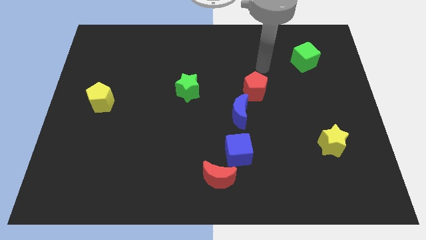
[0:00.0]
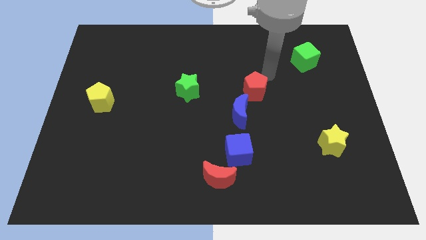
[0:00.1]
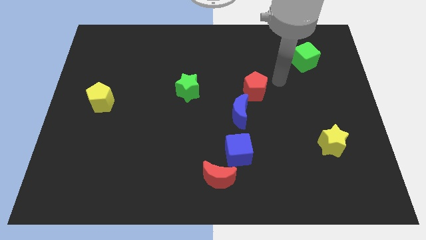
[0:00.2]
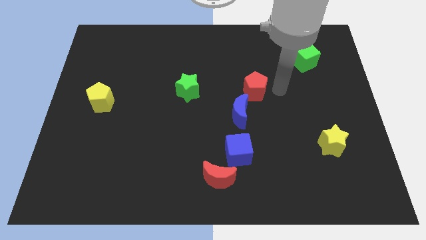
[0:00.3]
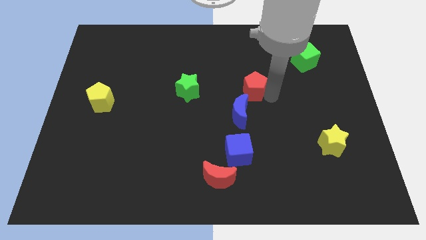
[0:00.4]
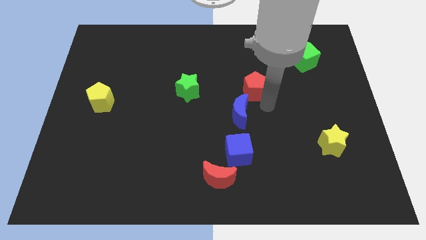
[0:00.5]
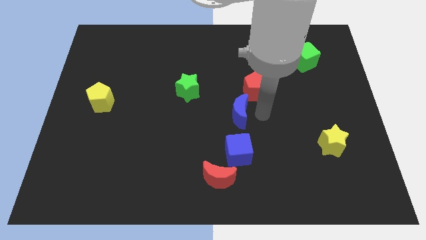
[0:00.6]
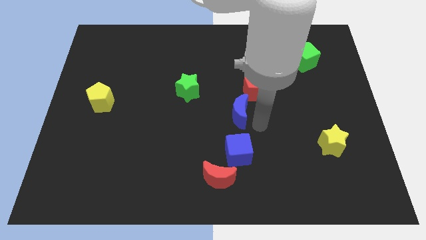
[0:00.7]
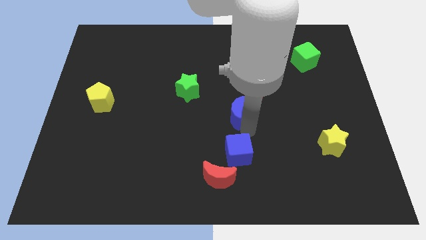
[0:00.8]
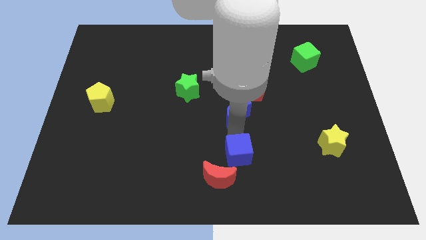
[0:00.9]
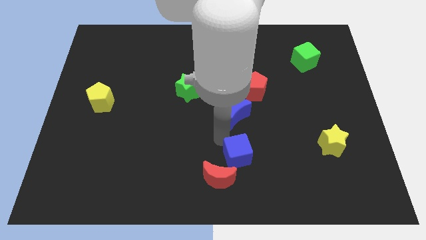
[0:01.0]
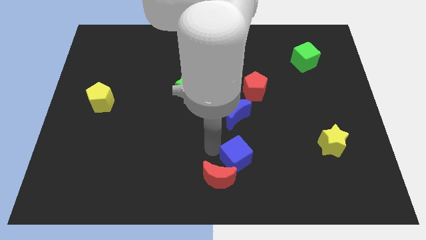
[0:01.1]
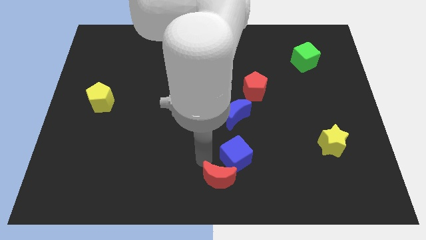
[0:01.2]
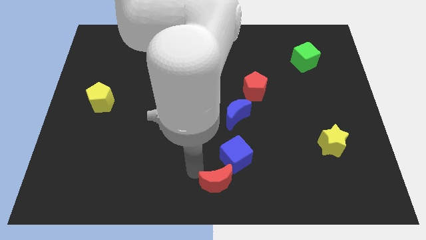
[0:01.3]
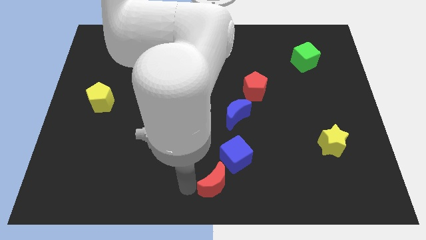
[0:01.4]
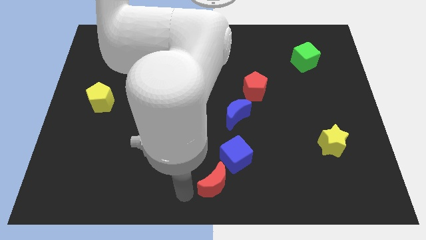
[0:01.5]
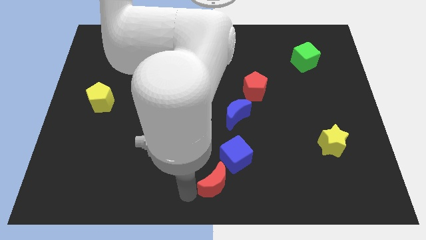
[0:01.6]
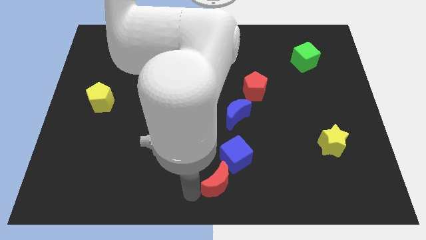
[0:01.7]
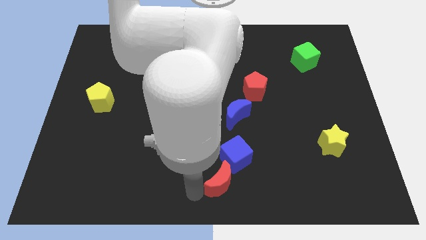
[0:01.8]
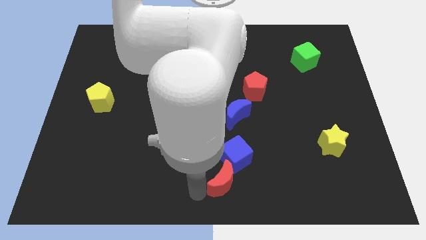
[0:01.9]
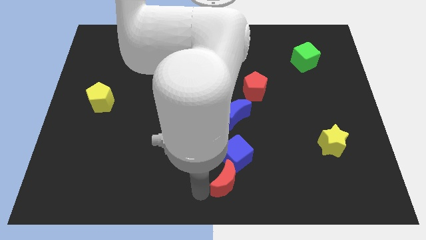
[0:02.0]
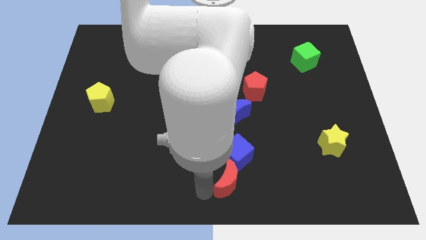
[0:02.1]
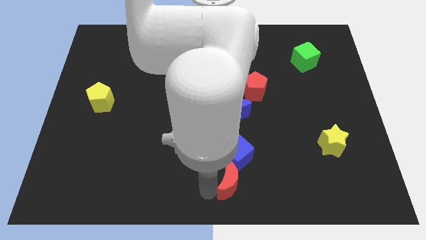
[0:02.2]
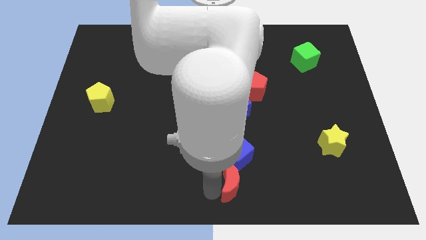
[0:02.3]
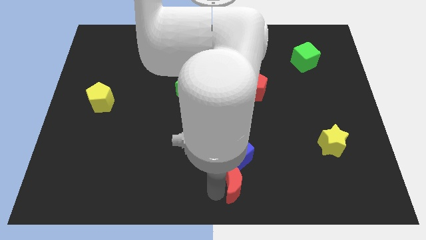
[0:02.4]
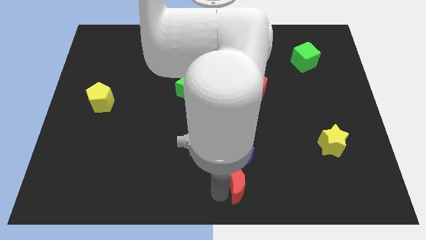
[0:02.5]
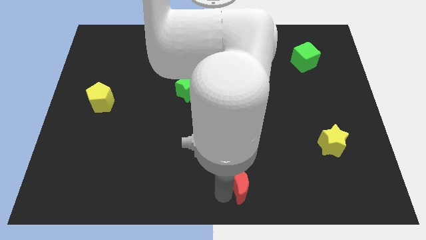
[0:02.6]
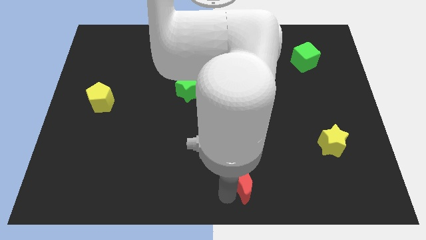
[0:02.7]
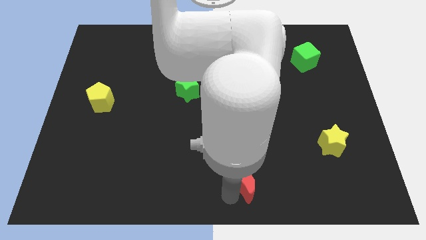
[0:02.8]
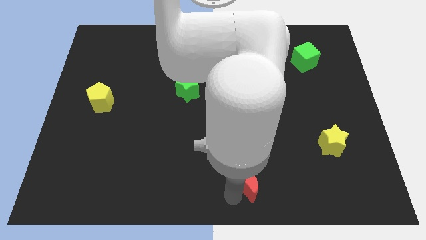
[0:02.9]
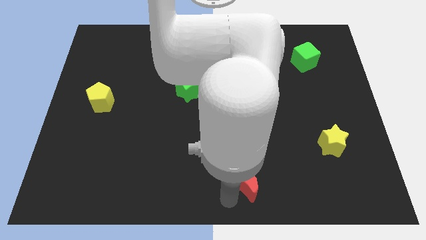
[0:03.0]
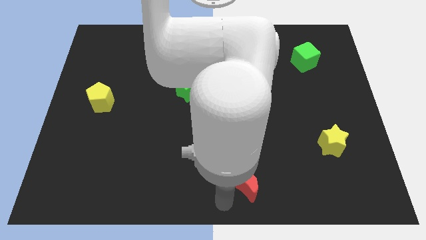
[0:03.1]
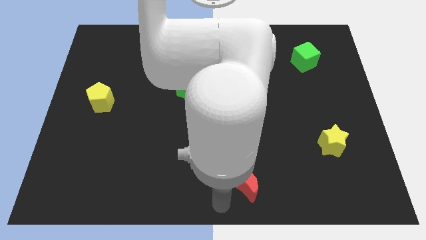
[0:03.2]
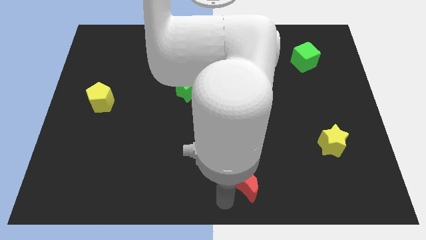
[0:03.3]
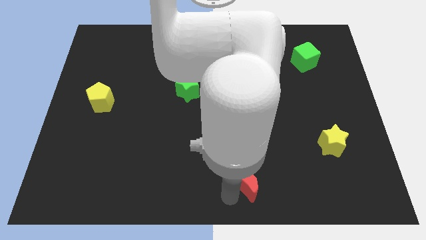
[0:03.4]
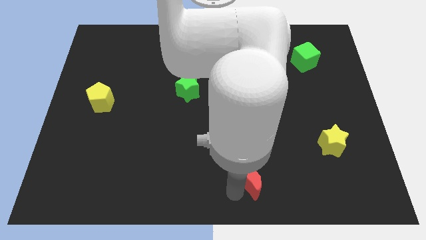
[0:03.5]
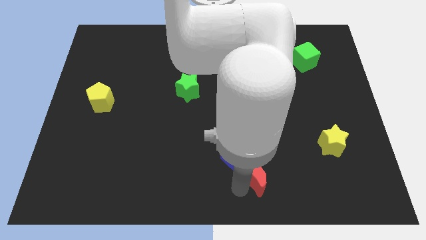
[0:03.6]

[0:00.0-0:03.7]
move the red moon right slightly

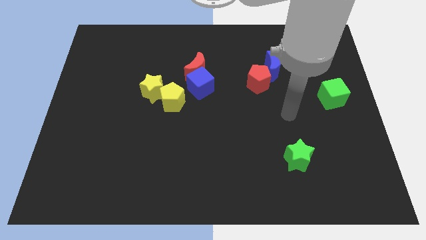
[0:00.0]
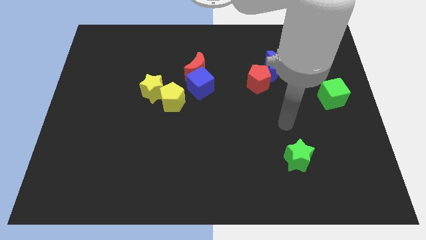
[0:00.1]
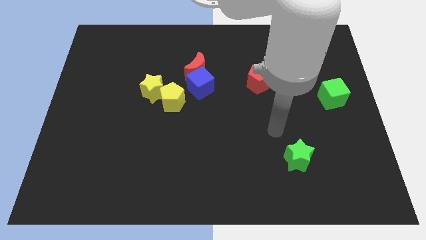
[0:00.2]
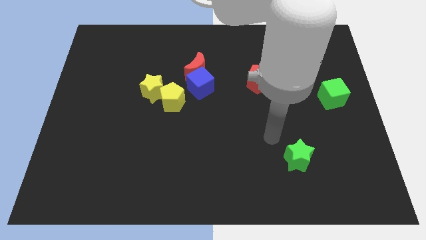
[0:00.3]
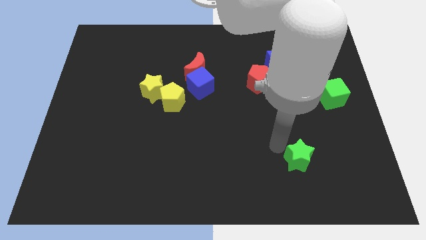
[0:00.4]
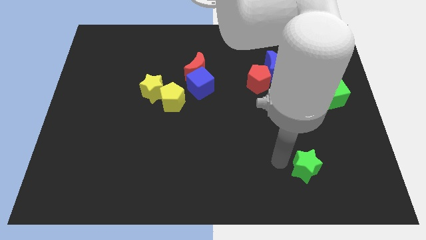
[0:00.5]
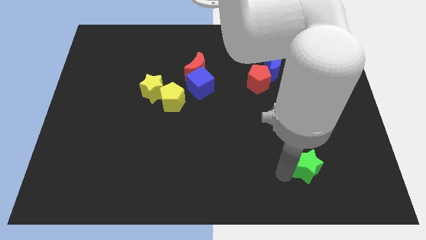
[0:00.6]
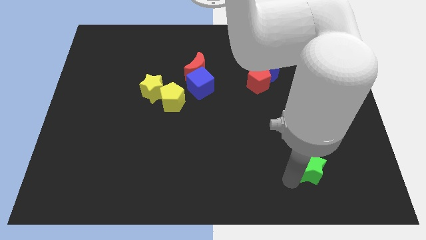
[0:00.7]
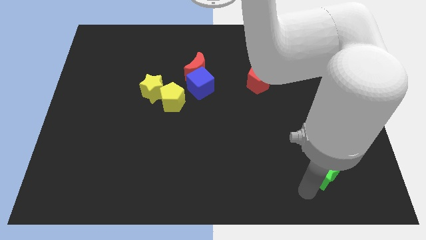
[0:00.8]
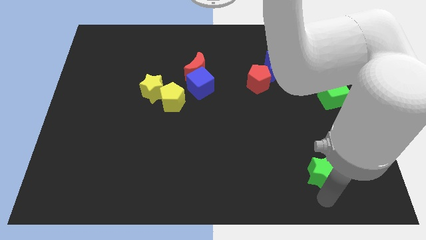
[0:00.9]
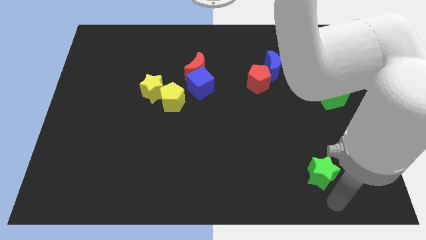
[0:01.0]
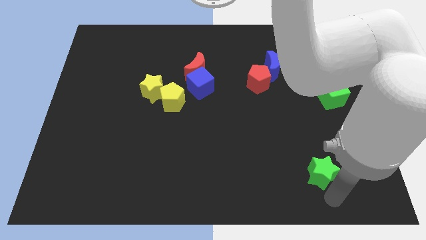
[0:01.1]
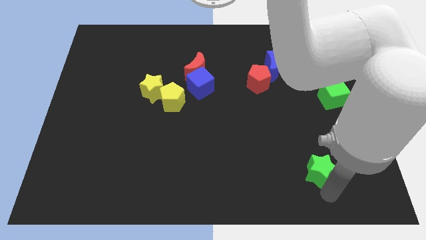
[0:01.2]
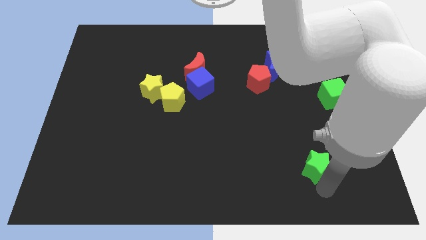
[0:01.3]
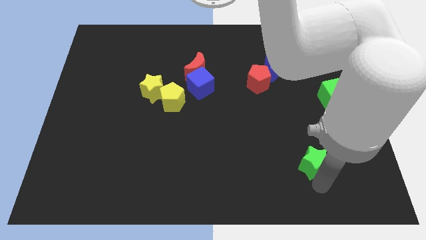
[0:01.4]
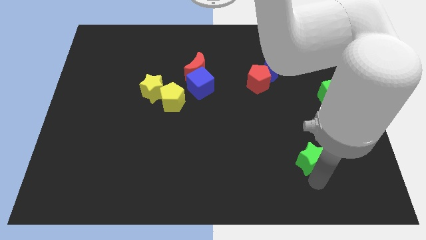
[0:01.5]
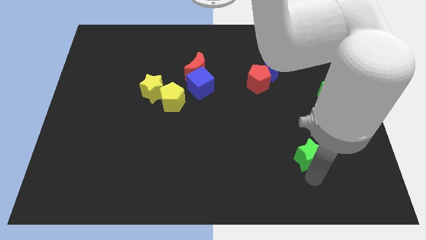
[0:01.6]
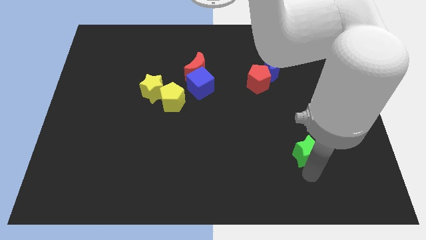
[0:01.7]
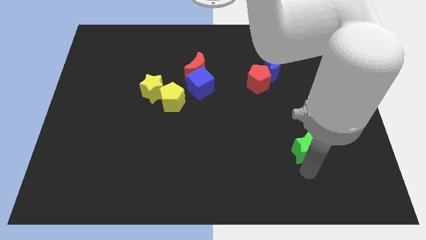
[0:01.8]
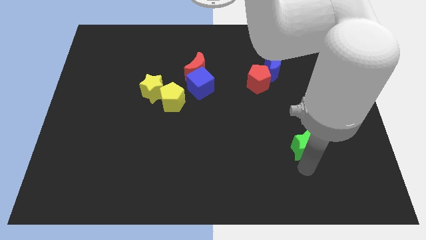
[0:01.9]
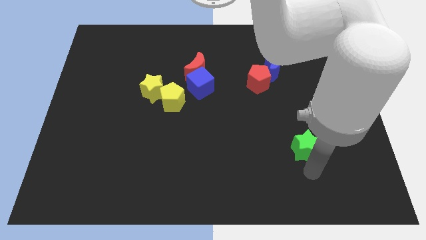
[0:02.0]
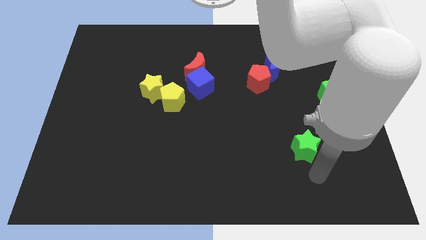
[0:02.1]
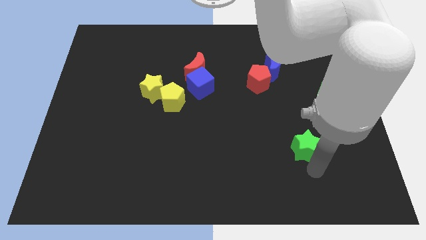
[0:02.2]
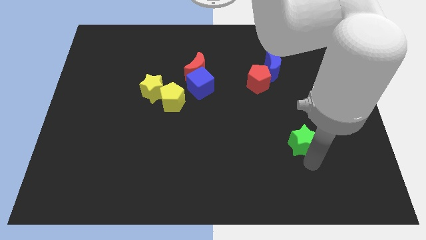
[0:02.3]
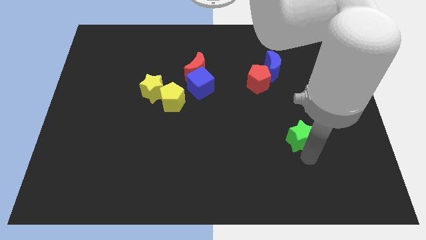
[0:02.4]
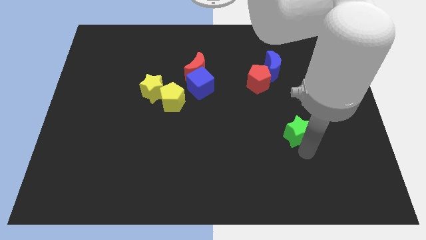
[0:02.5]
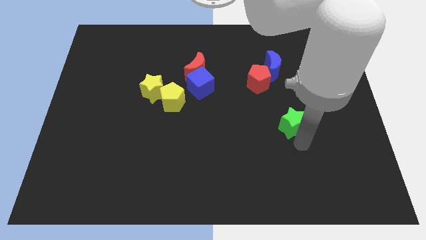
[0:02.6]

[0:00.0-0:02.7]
move the green star upwards a little bit

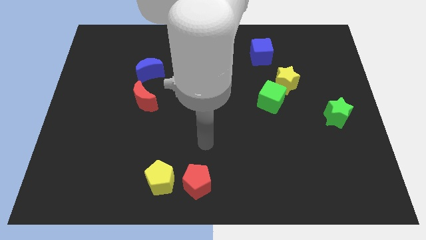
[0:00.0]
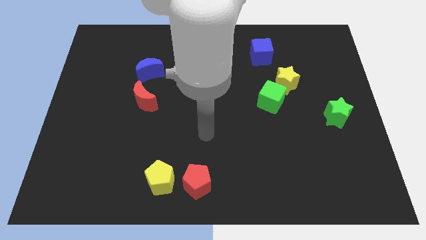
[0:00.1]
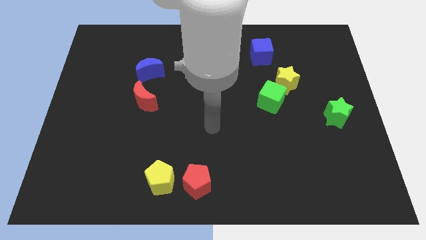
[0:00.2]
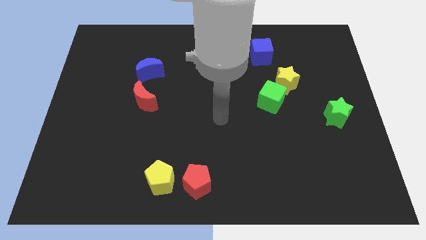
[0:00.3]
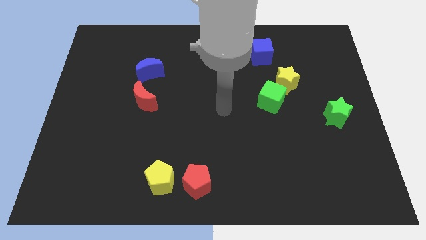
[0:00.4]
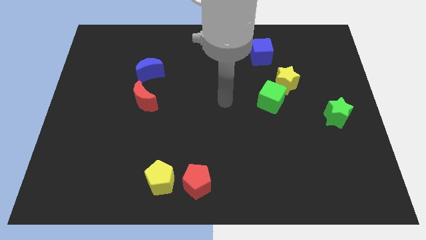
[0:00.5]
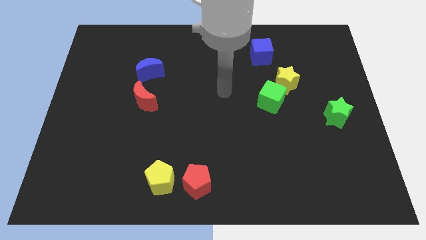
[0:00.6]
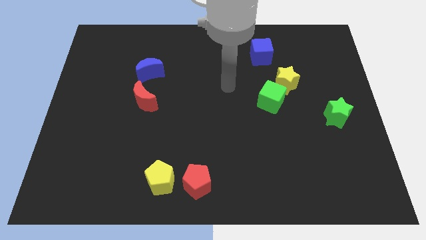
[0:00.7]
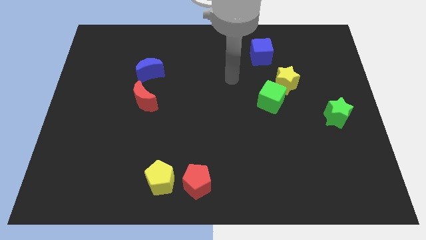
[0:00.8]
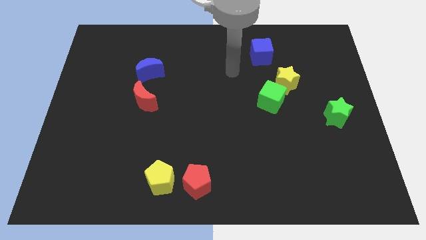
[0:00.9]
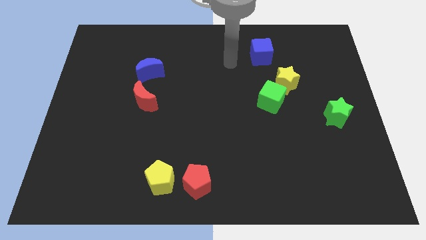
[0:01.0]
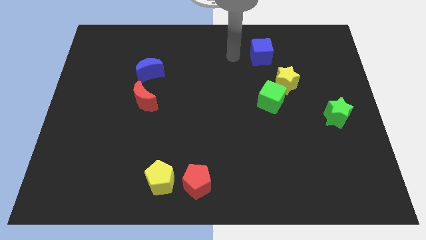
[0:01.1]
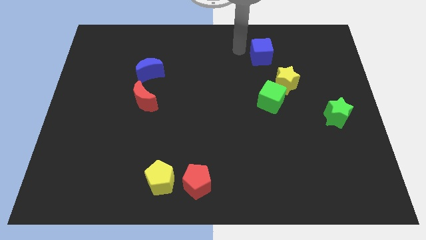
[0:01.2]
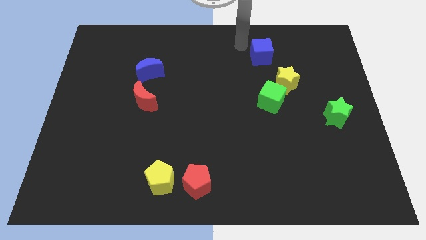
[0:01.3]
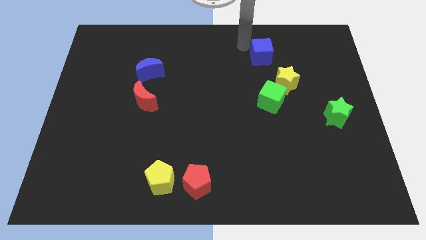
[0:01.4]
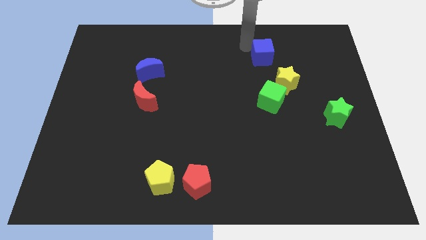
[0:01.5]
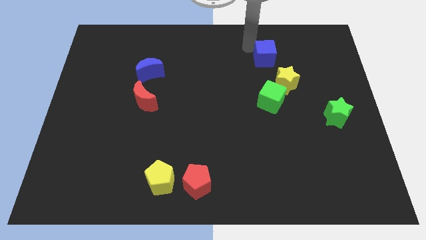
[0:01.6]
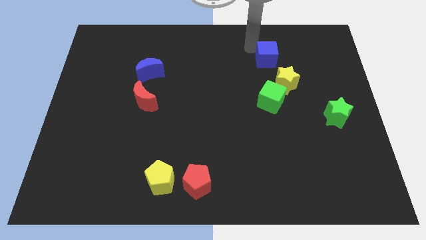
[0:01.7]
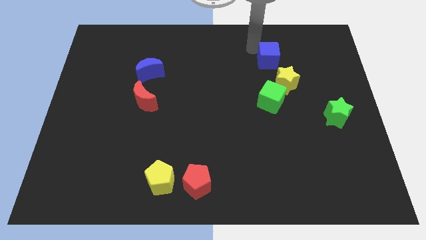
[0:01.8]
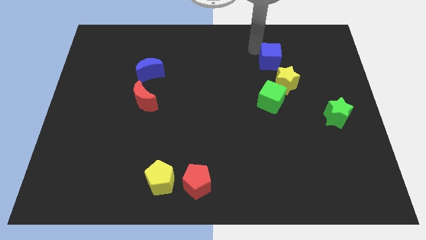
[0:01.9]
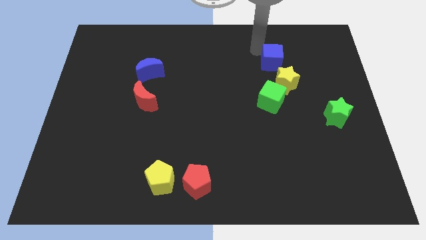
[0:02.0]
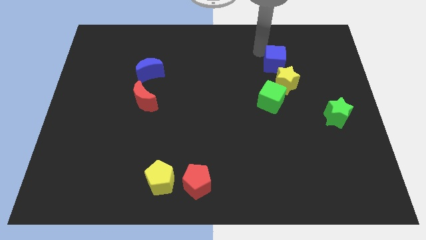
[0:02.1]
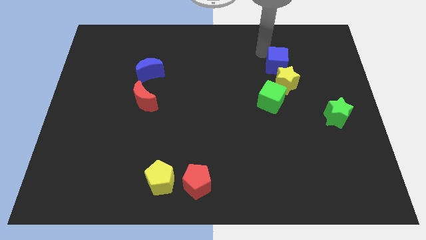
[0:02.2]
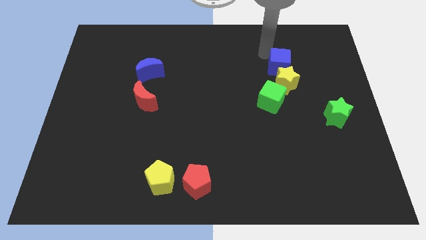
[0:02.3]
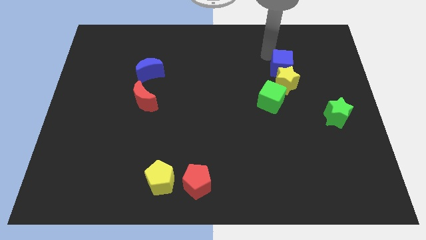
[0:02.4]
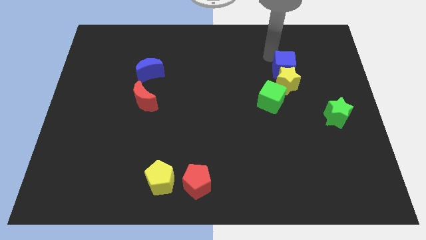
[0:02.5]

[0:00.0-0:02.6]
slide the blue cube slightly down and then right
